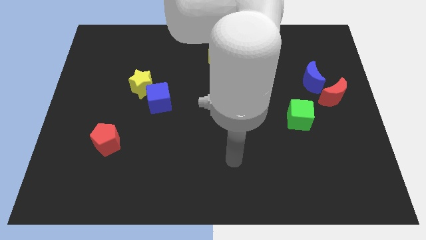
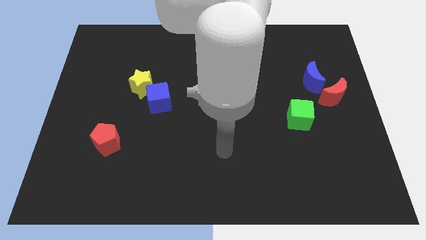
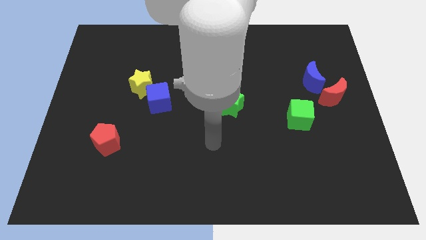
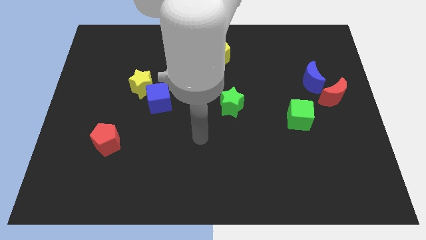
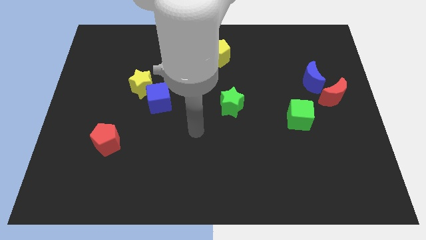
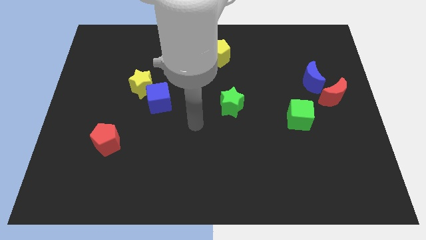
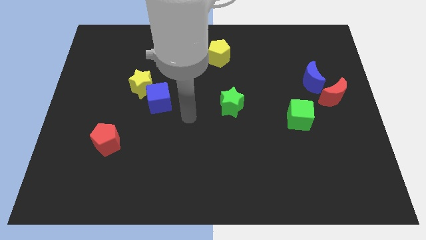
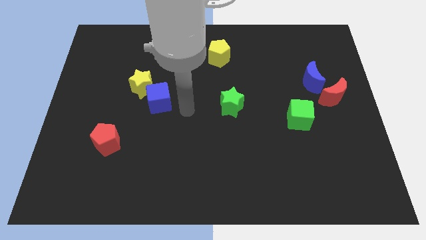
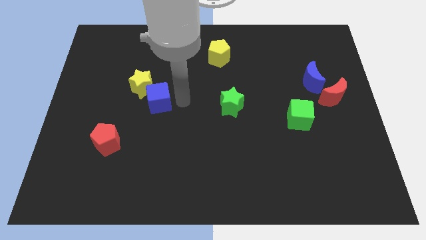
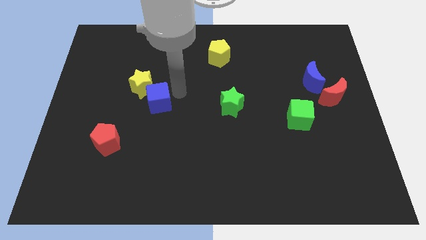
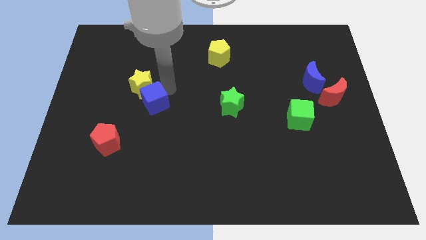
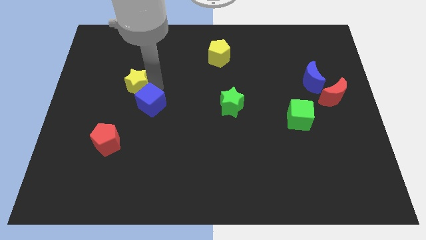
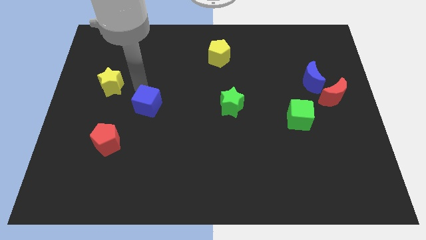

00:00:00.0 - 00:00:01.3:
move the blue cube away from the yellow star

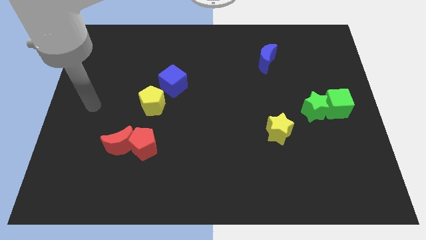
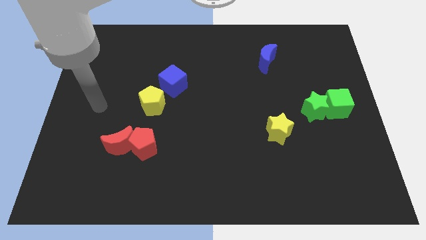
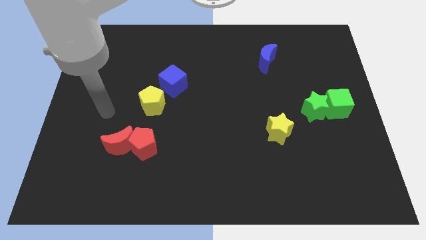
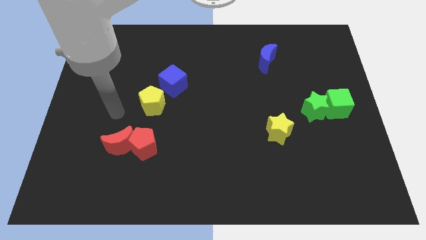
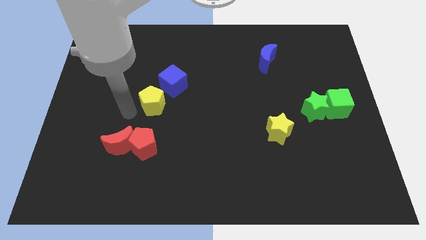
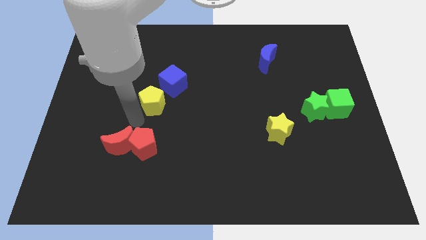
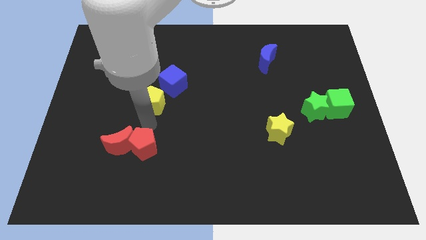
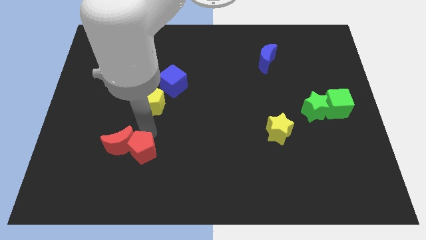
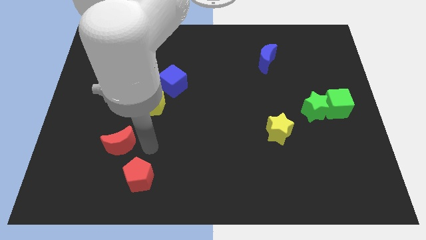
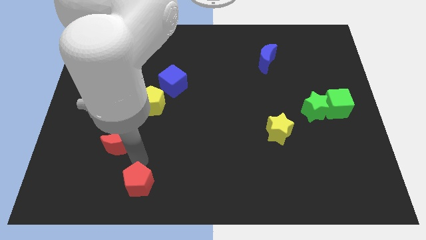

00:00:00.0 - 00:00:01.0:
pull the red moon apart from the red pentagon

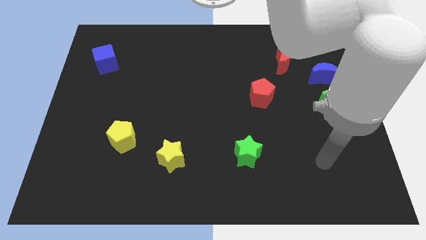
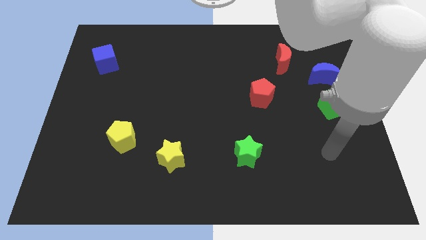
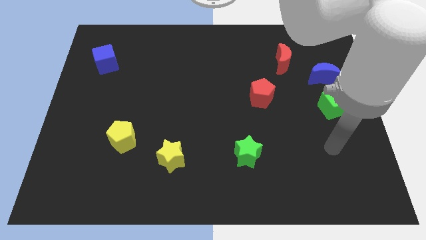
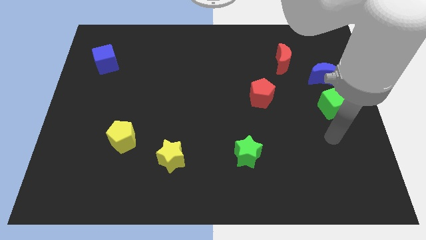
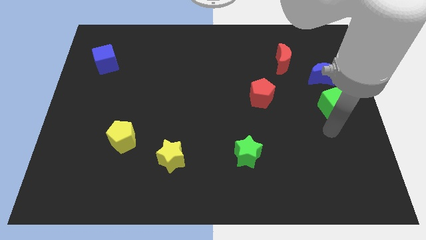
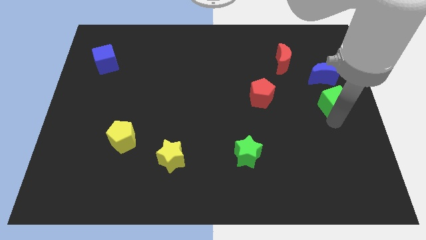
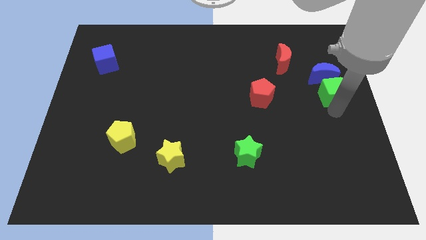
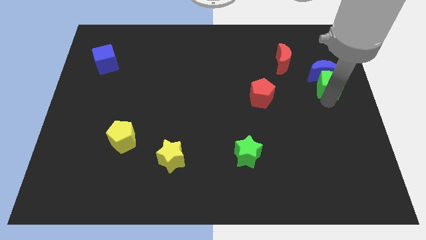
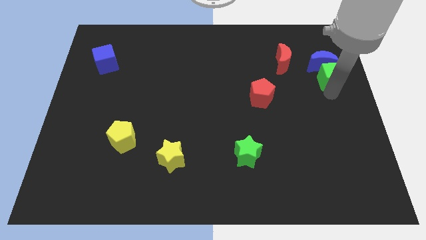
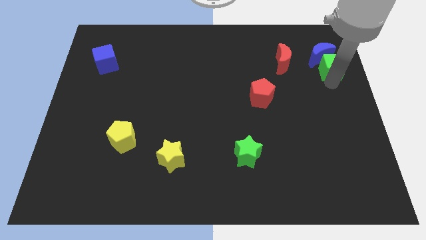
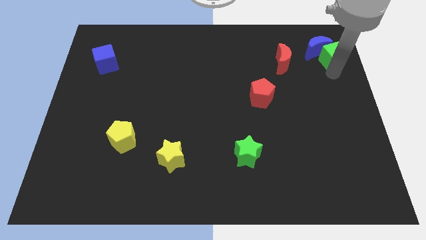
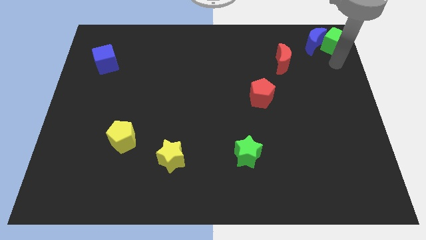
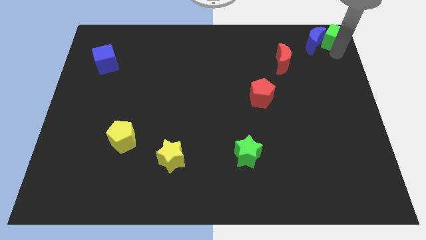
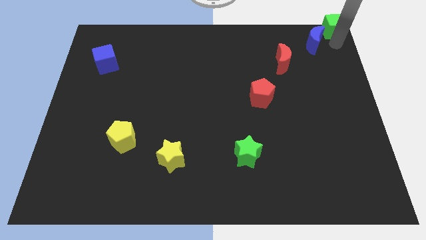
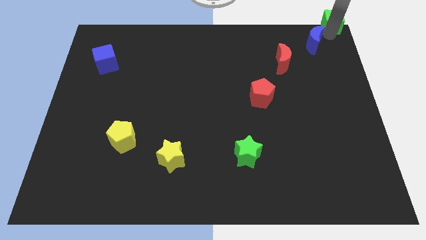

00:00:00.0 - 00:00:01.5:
separate the blue moon from the green cube

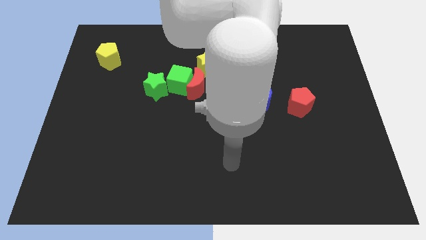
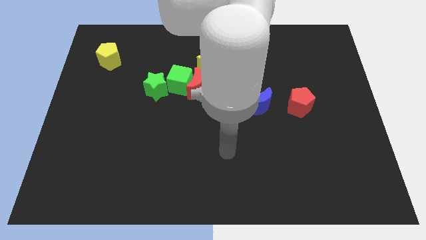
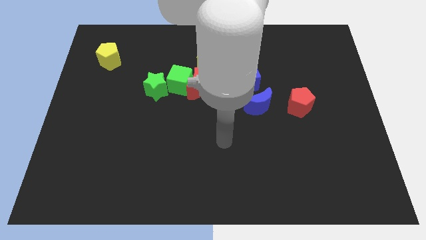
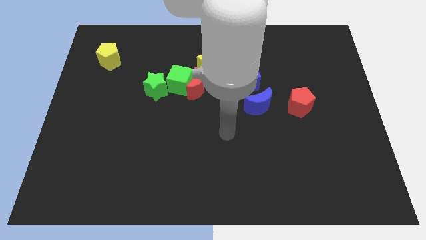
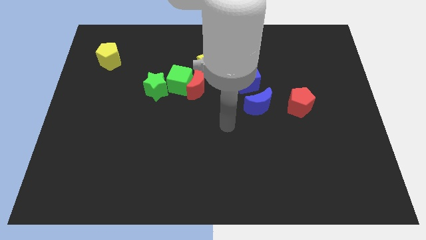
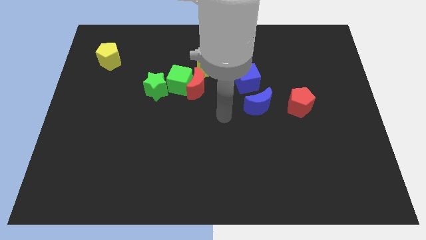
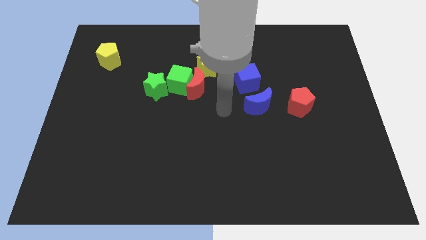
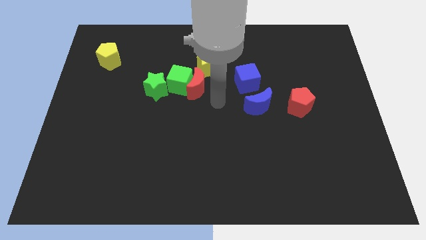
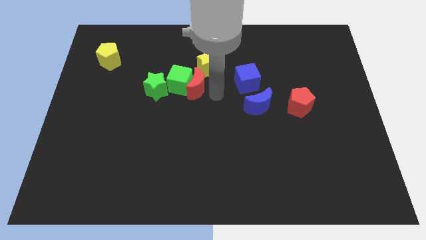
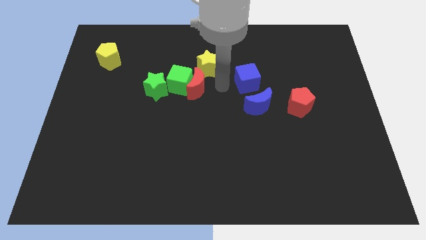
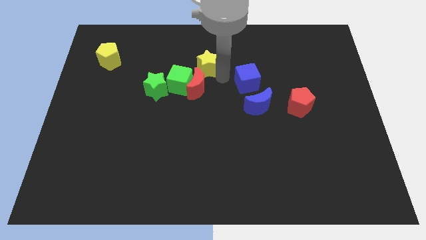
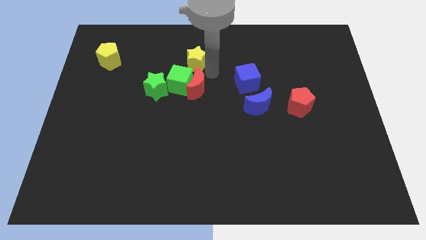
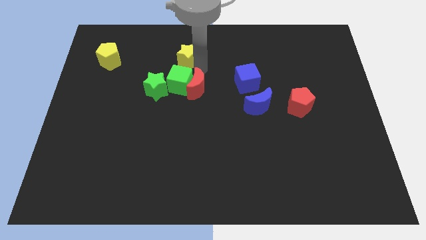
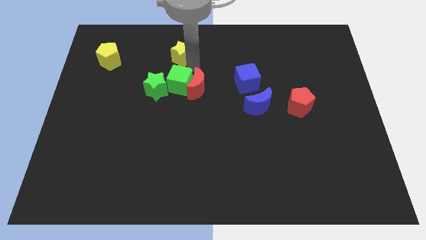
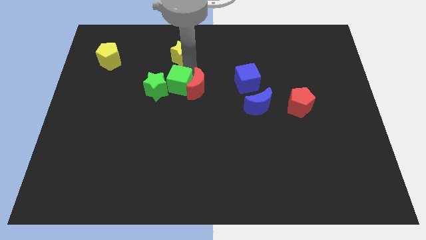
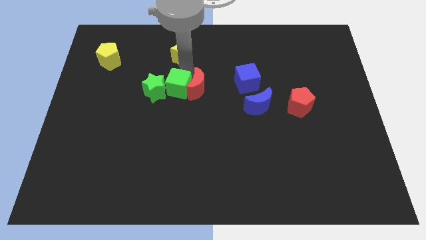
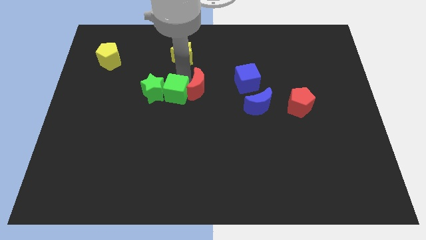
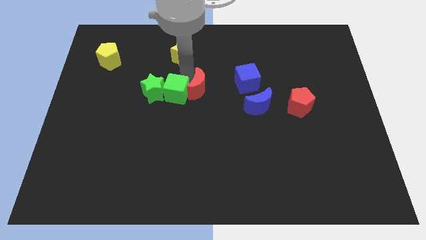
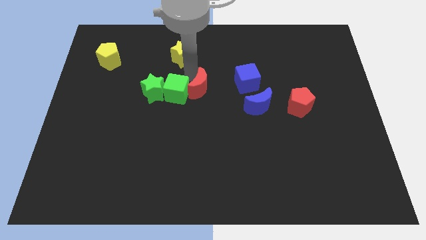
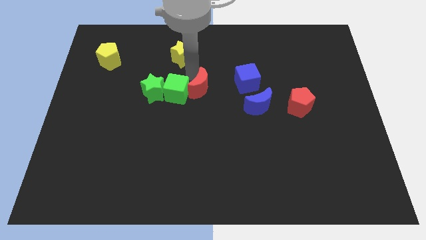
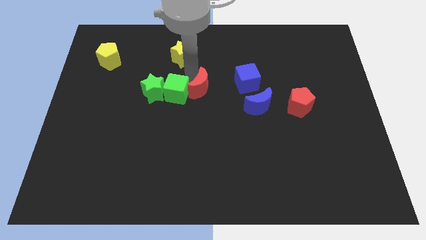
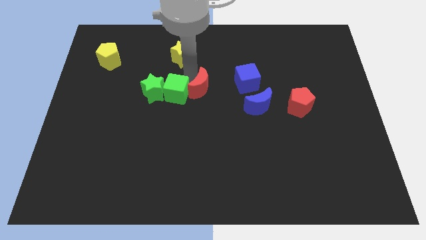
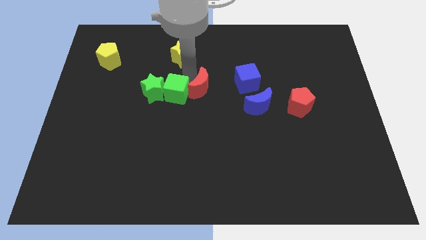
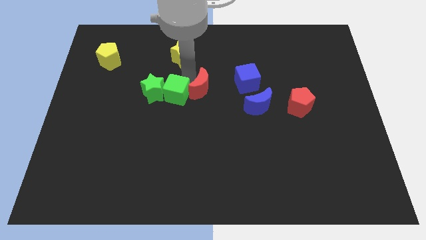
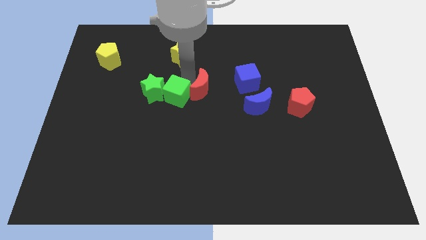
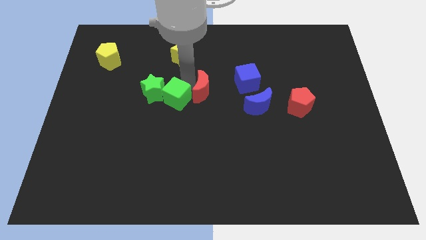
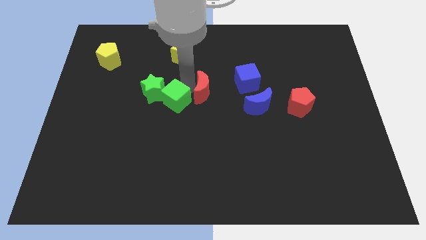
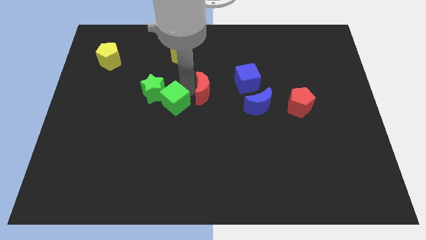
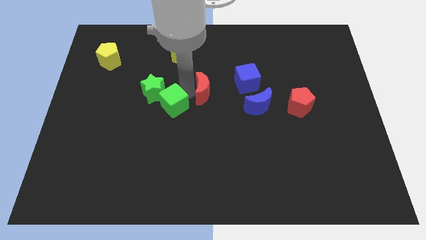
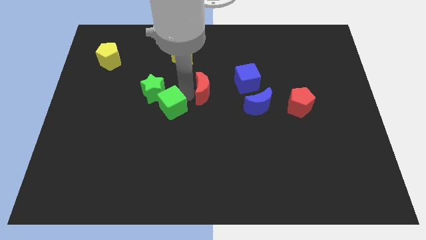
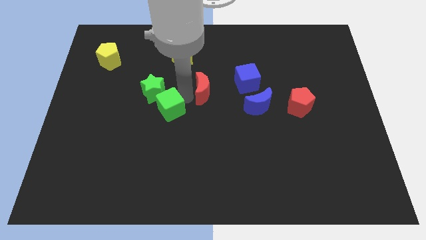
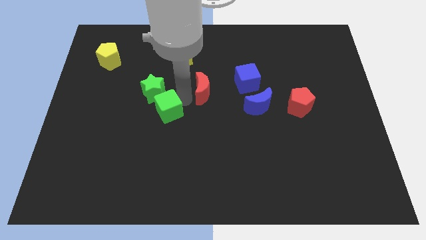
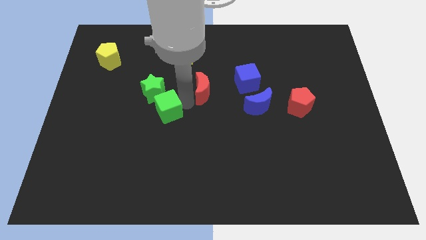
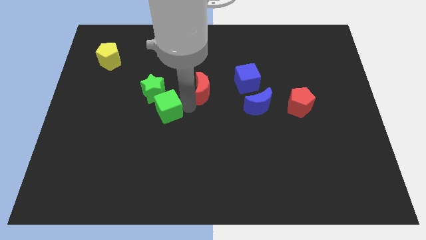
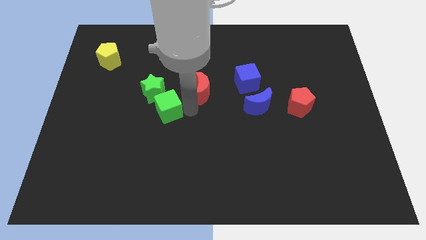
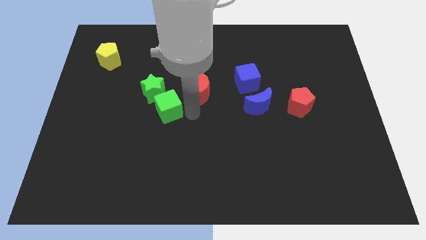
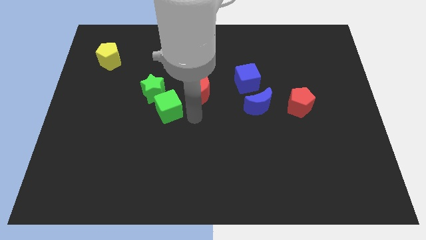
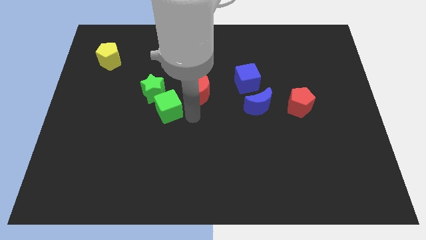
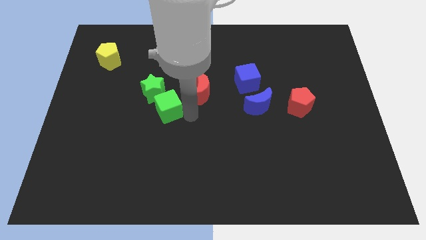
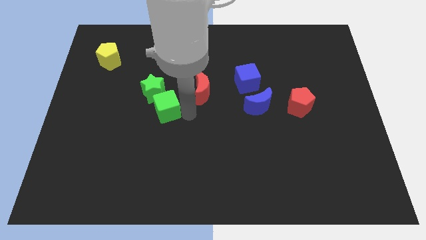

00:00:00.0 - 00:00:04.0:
pull the green cube apart from the group of blocks

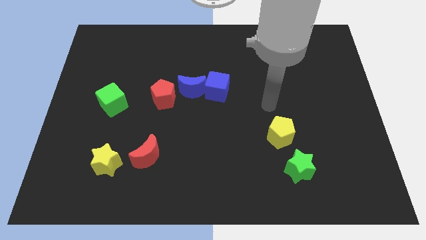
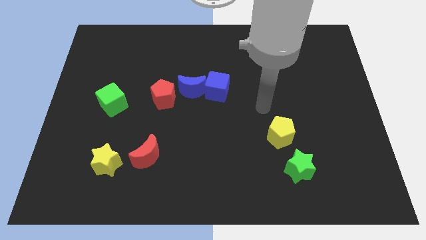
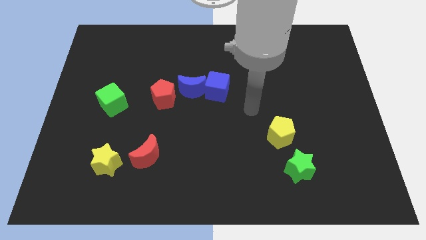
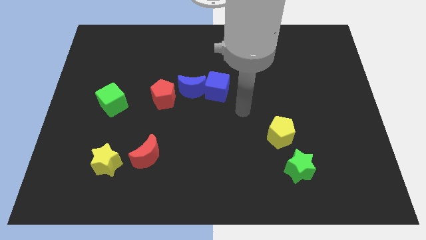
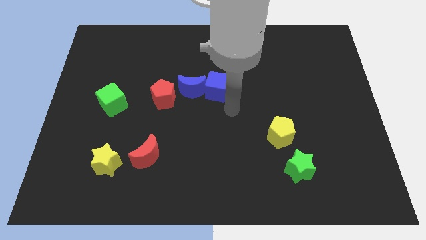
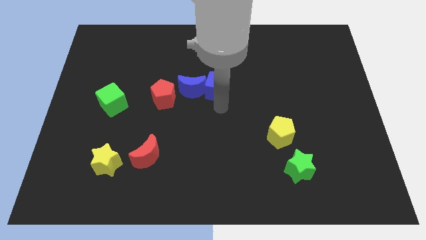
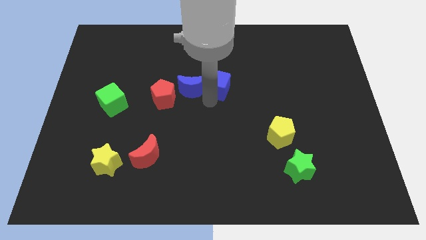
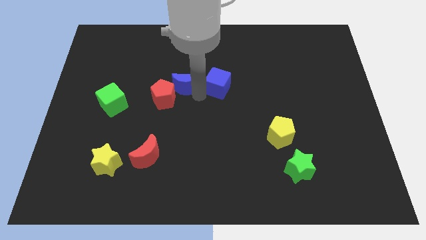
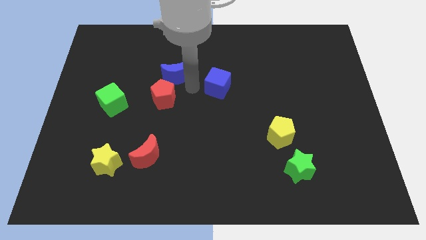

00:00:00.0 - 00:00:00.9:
pull the blue cube apart from the blue moon

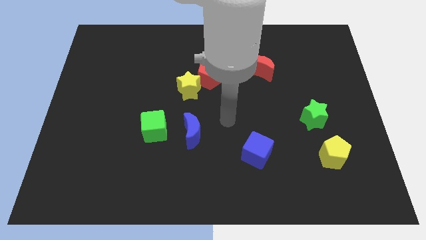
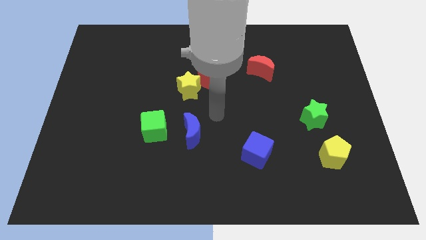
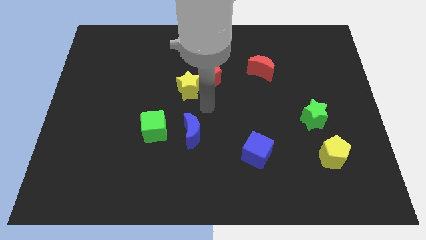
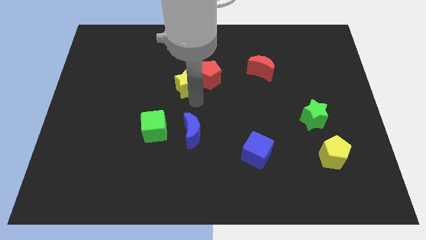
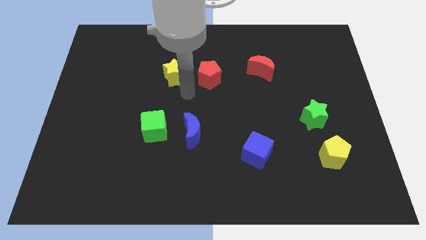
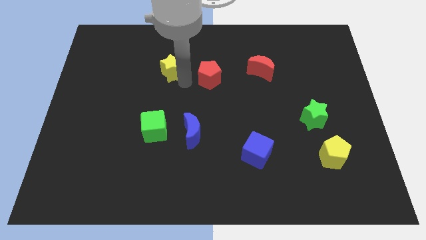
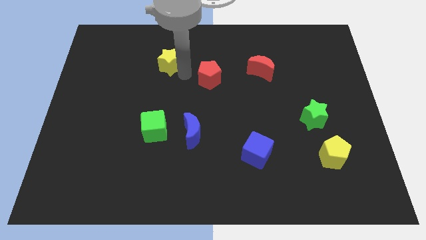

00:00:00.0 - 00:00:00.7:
separate the red pentagon from the yellow star

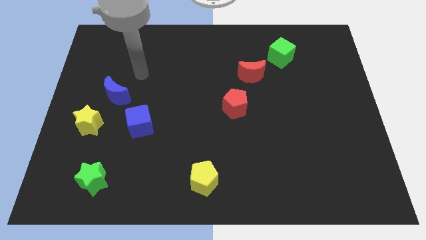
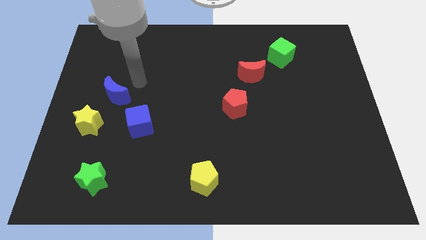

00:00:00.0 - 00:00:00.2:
move the blue moon away from the yellow star
